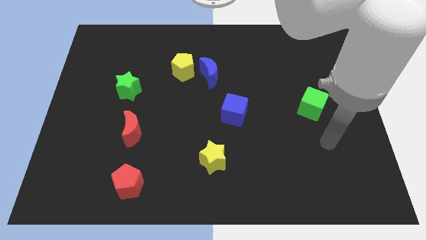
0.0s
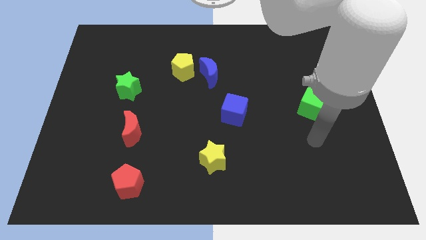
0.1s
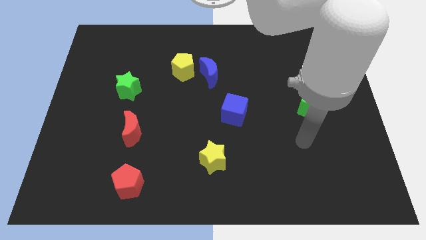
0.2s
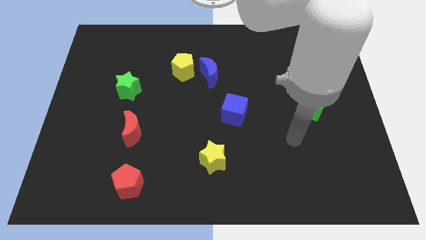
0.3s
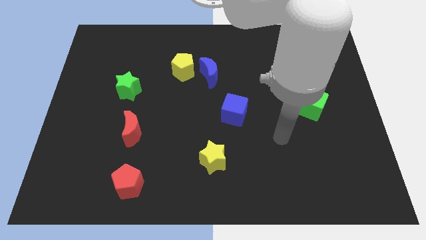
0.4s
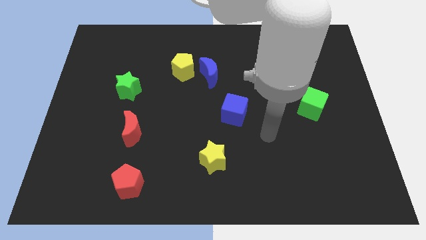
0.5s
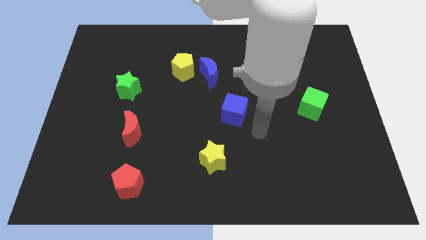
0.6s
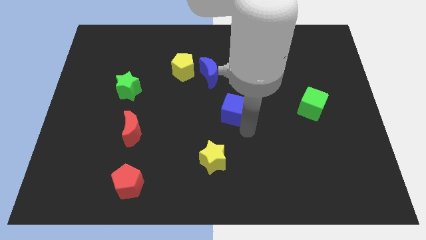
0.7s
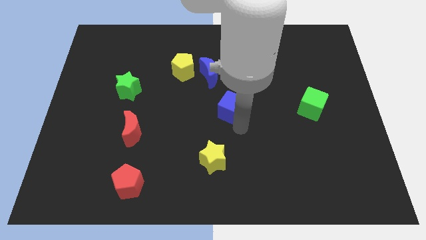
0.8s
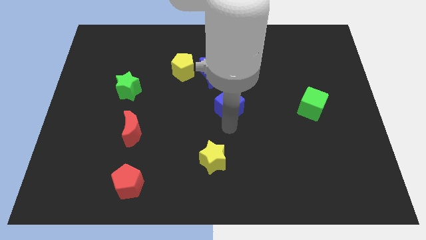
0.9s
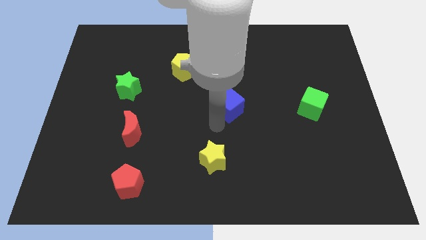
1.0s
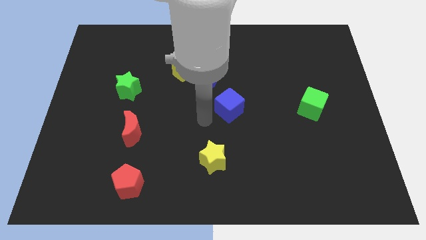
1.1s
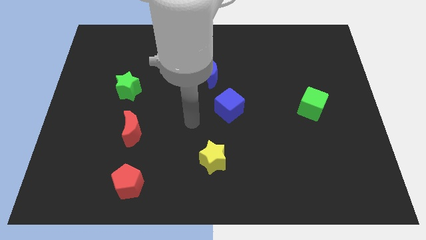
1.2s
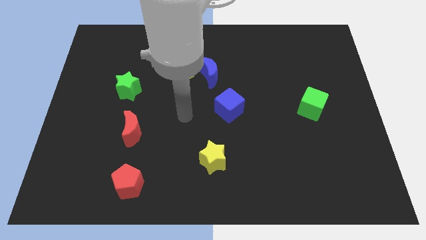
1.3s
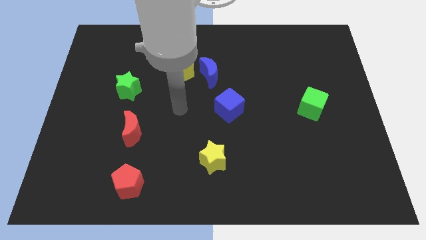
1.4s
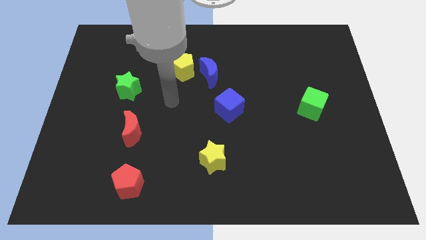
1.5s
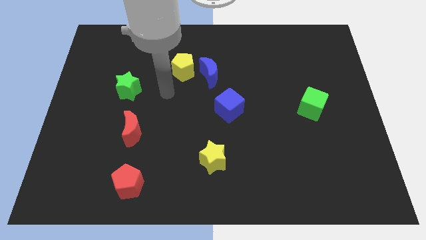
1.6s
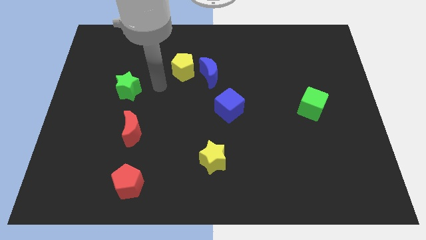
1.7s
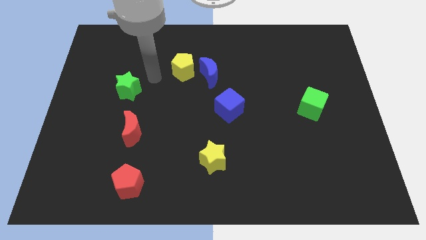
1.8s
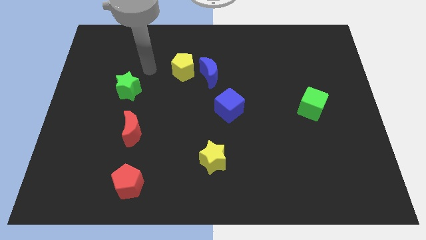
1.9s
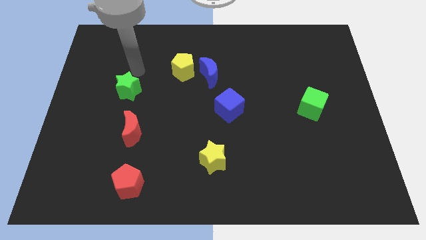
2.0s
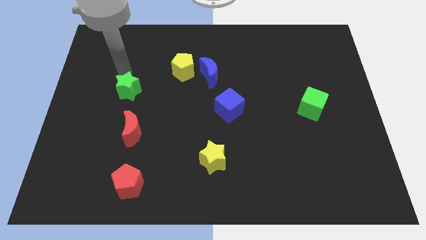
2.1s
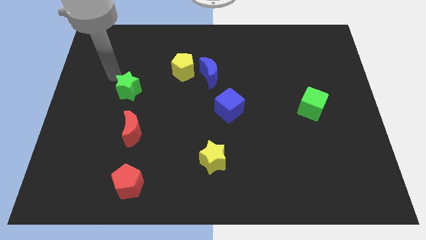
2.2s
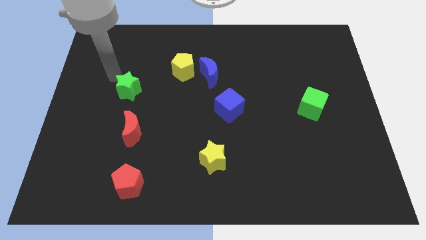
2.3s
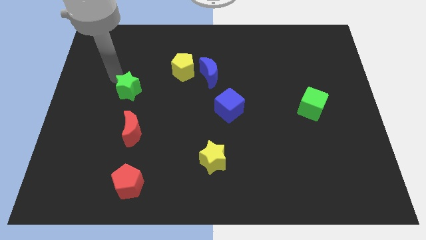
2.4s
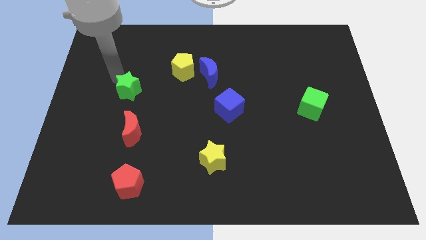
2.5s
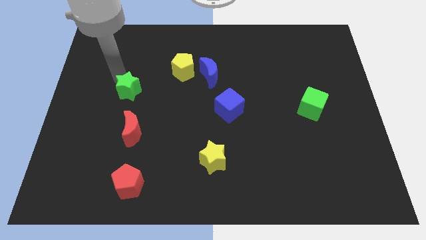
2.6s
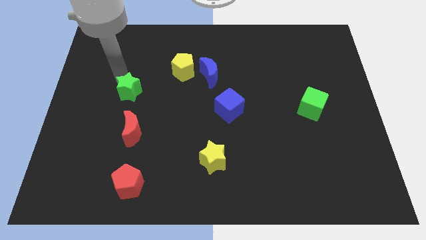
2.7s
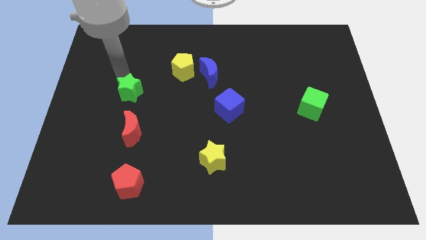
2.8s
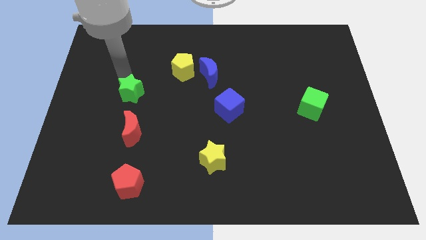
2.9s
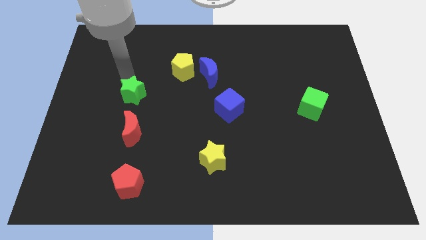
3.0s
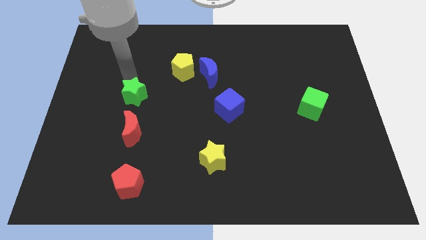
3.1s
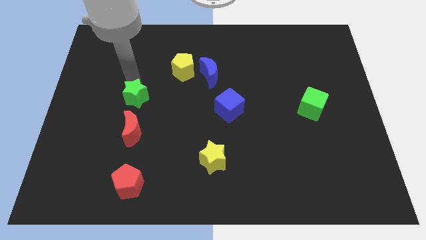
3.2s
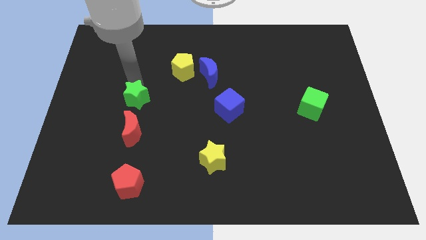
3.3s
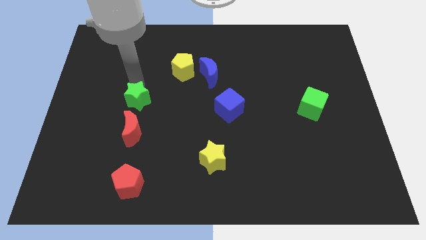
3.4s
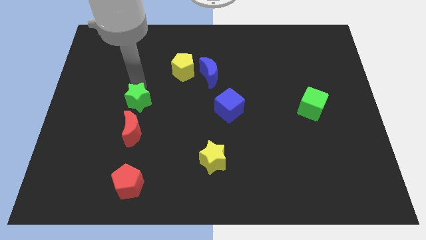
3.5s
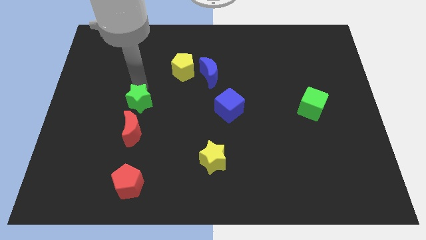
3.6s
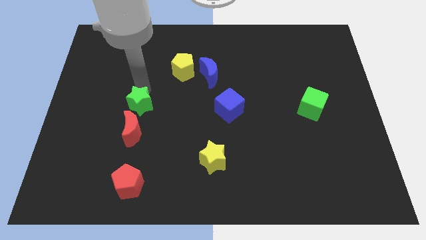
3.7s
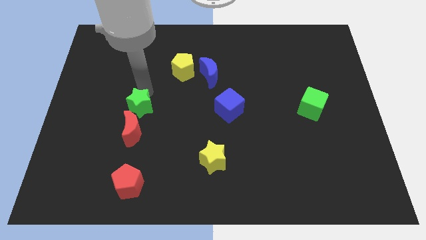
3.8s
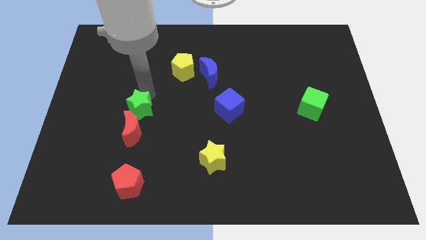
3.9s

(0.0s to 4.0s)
move the green star diagonally downwards and right a little

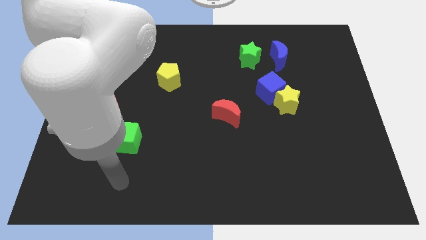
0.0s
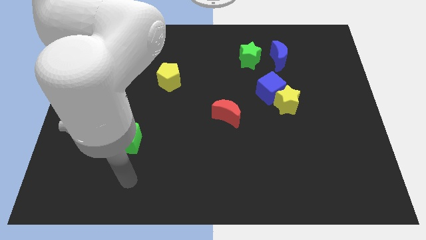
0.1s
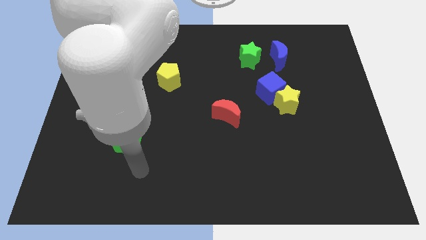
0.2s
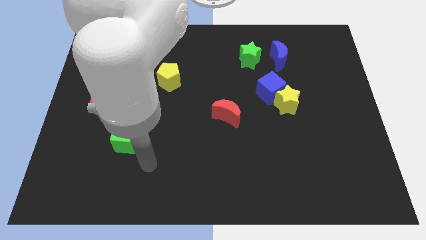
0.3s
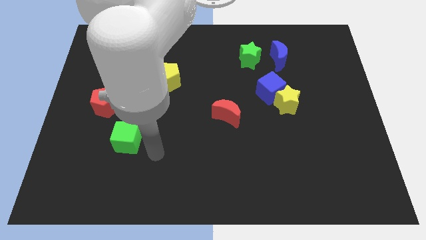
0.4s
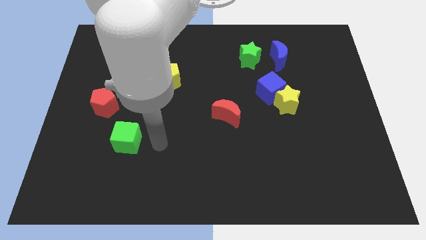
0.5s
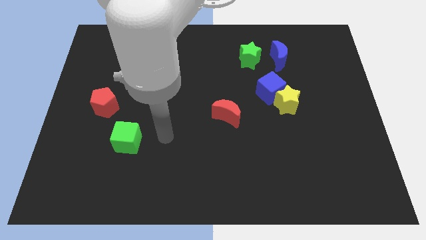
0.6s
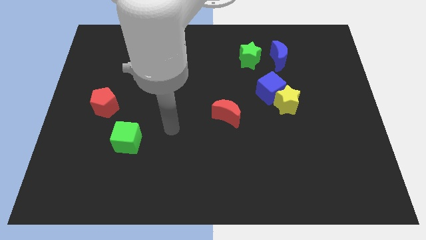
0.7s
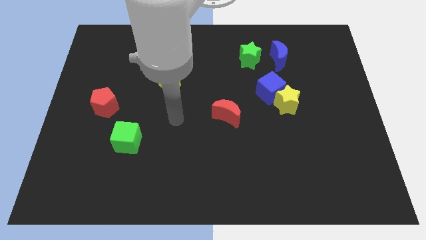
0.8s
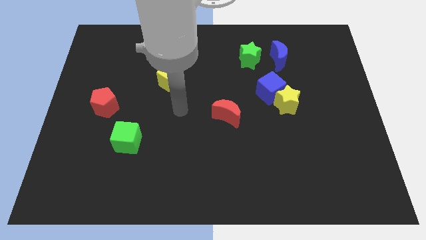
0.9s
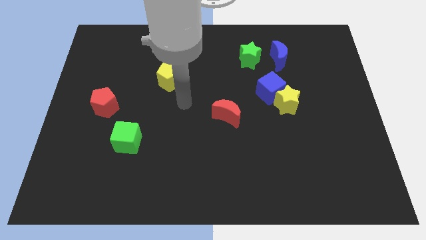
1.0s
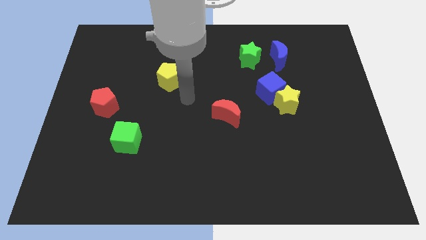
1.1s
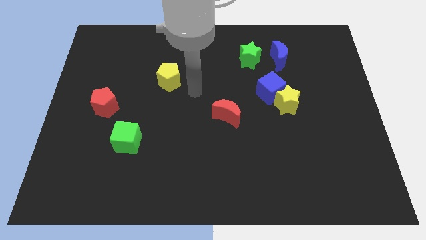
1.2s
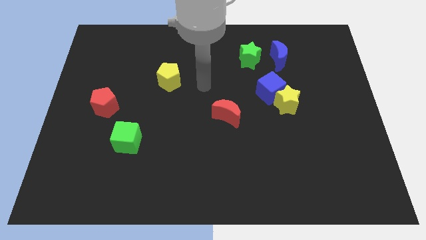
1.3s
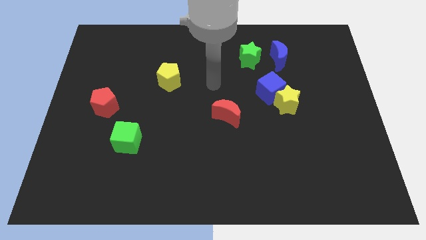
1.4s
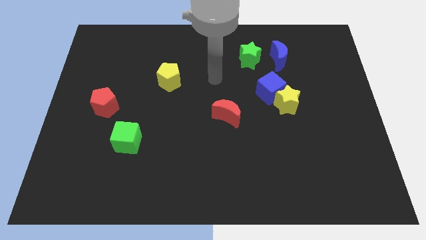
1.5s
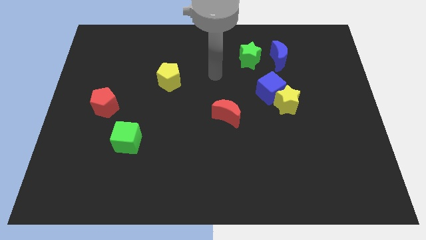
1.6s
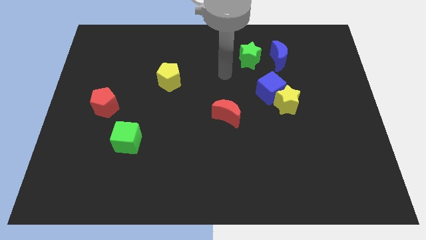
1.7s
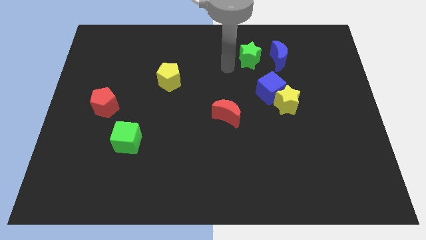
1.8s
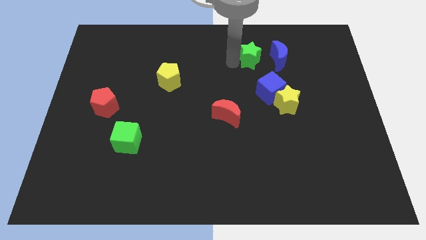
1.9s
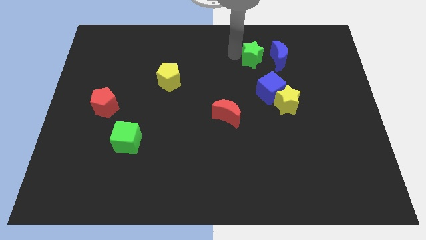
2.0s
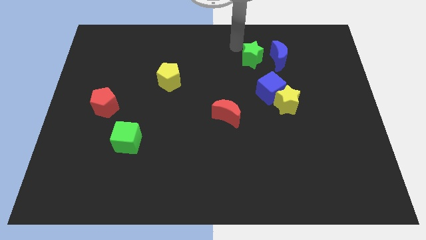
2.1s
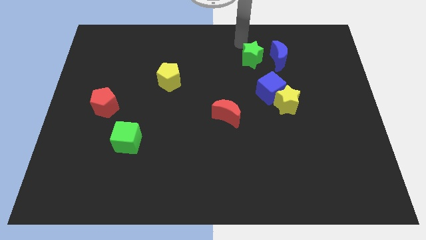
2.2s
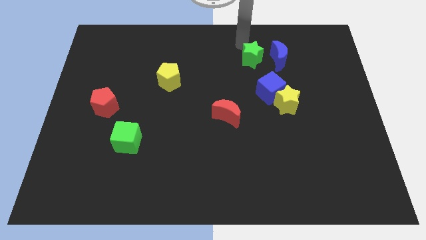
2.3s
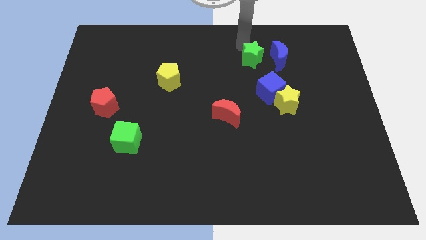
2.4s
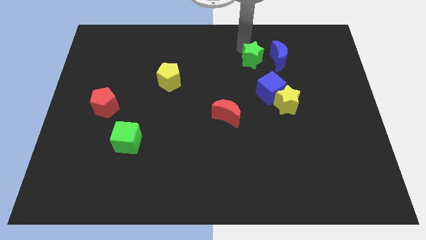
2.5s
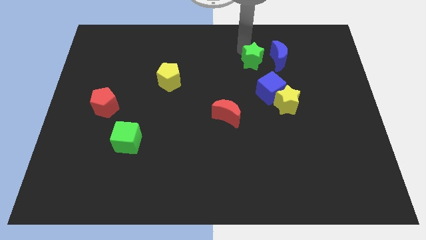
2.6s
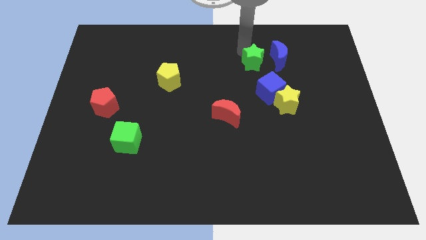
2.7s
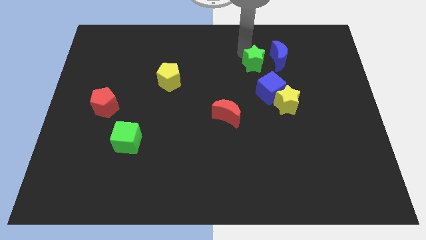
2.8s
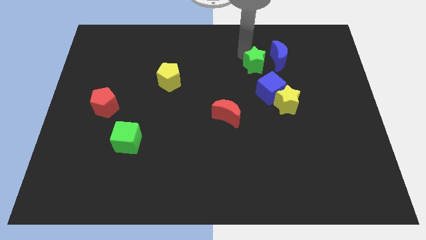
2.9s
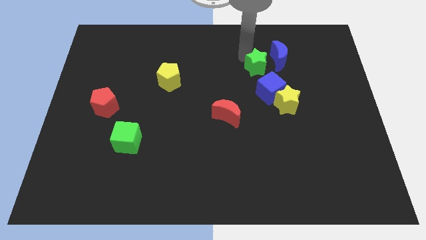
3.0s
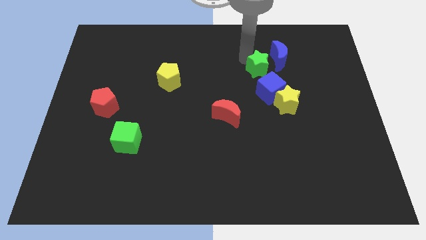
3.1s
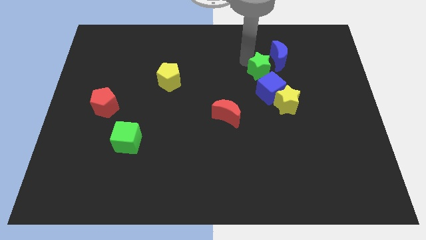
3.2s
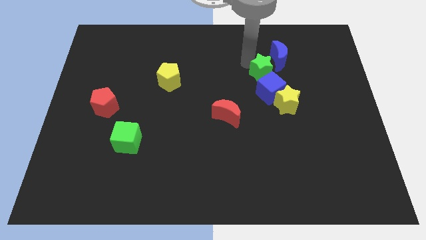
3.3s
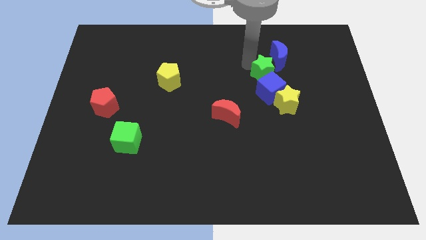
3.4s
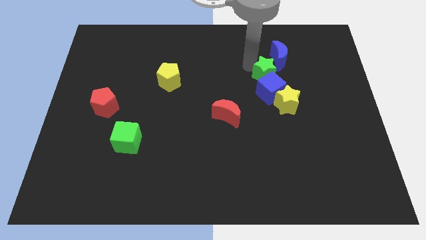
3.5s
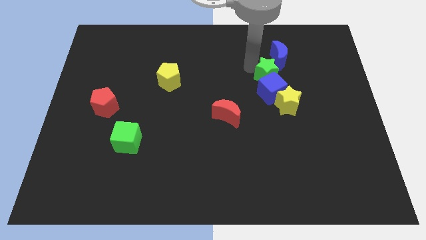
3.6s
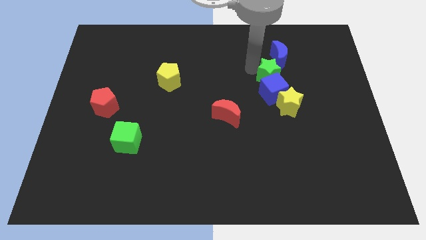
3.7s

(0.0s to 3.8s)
slide the green star a little bit downwards and then to the right

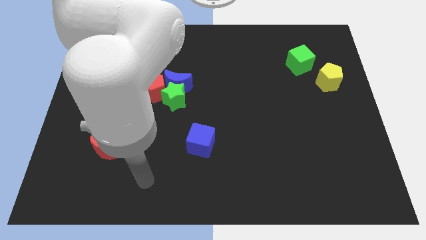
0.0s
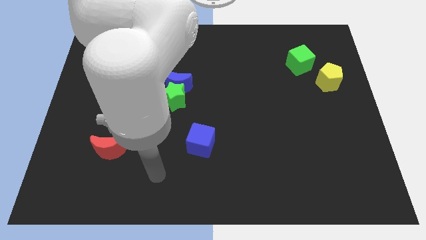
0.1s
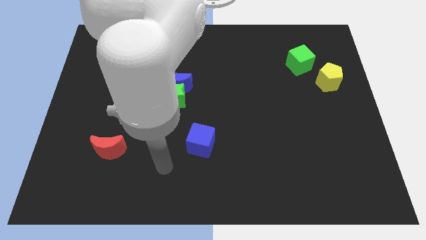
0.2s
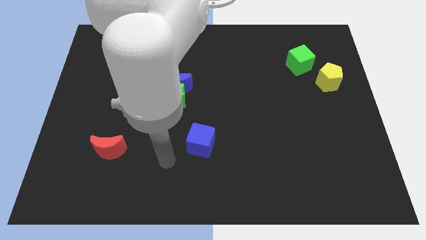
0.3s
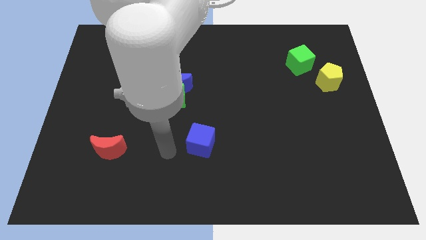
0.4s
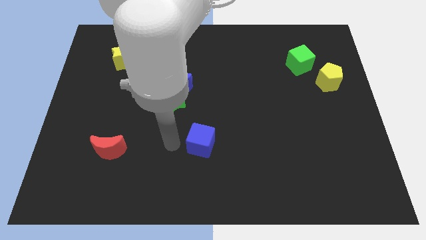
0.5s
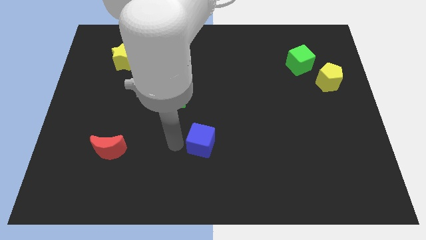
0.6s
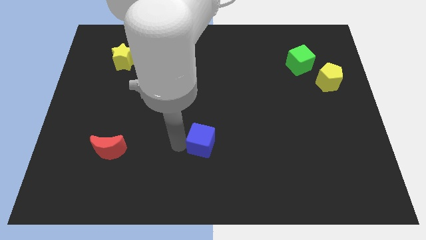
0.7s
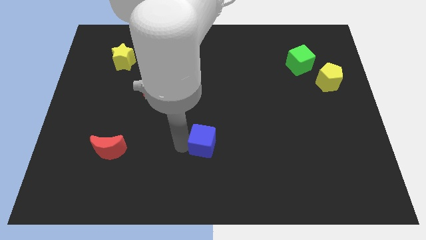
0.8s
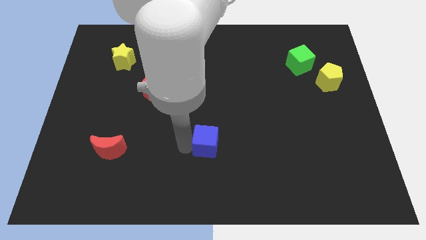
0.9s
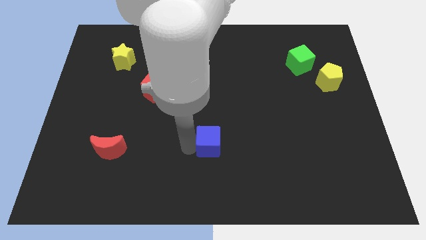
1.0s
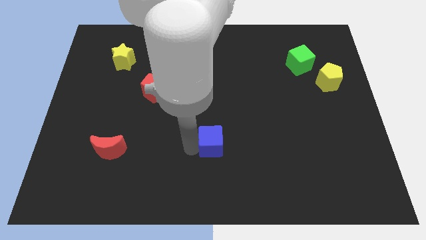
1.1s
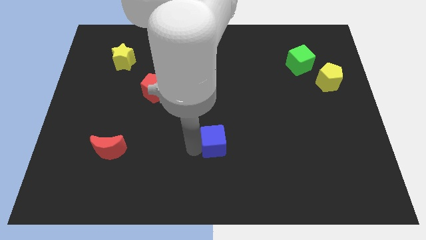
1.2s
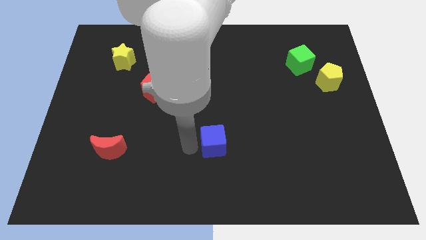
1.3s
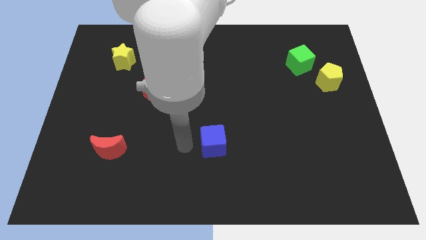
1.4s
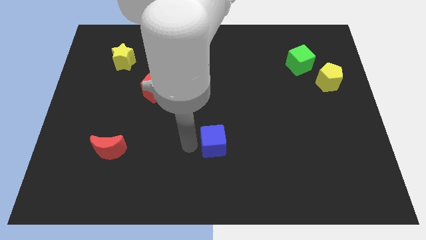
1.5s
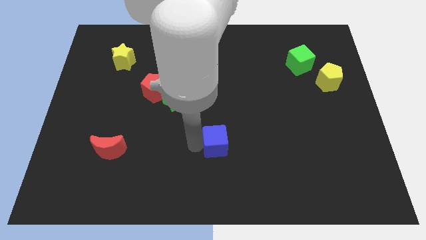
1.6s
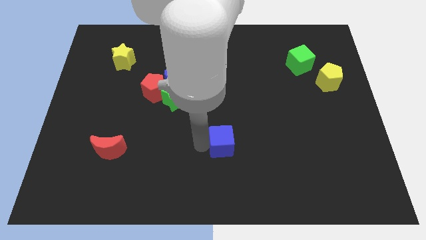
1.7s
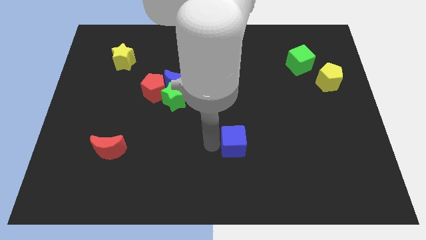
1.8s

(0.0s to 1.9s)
slightly push the blue cube right
